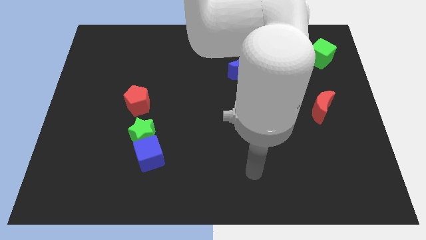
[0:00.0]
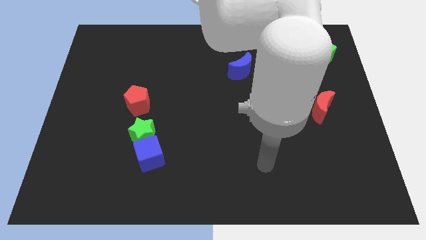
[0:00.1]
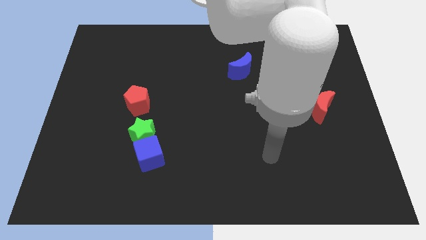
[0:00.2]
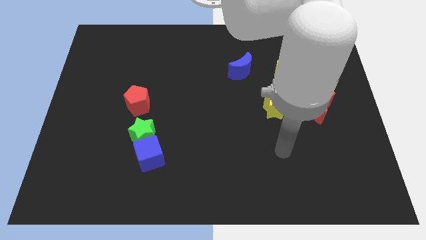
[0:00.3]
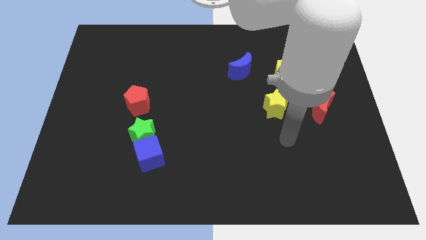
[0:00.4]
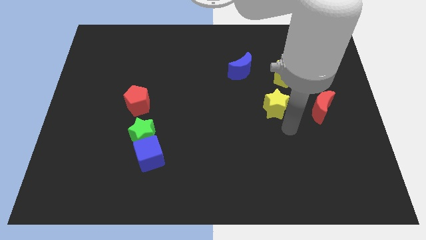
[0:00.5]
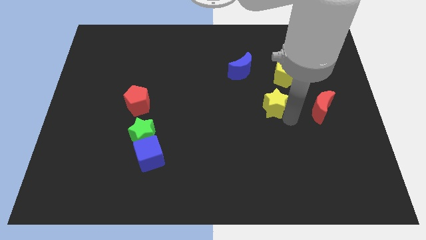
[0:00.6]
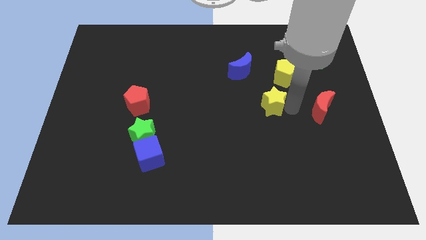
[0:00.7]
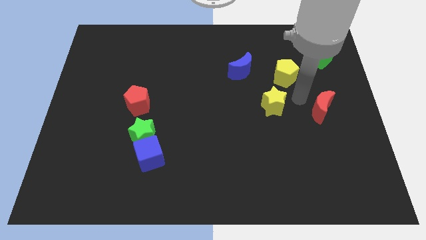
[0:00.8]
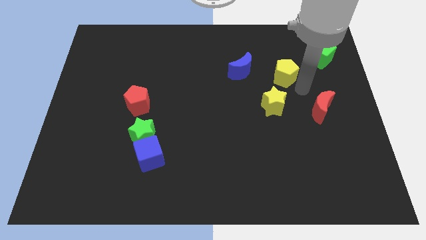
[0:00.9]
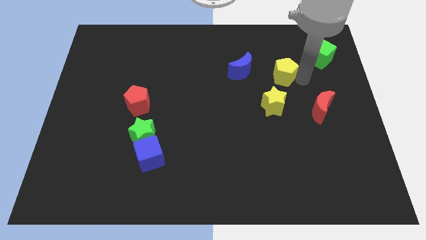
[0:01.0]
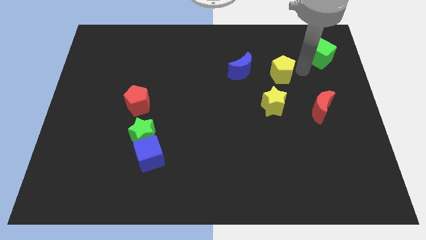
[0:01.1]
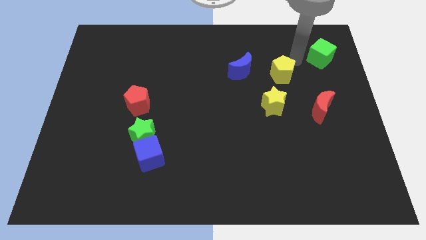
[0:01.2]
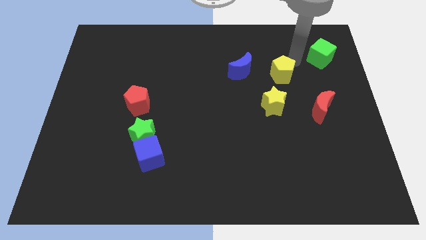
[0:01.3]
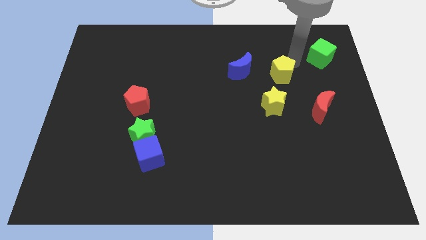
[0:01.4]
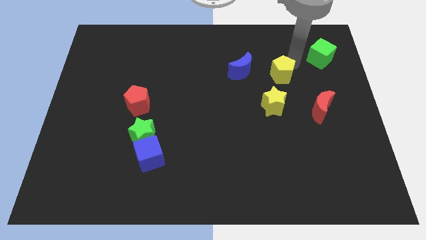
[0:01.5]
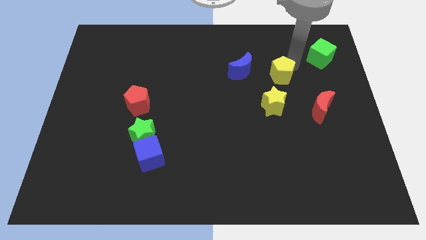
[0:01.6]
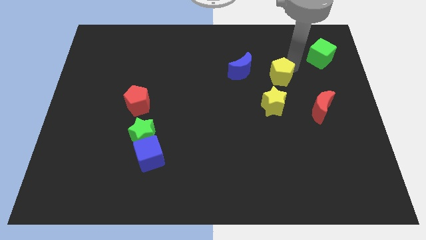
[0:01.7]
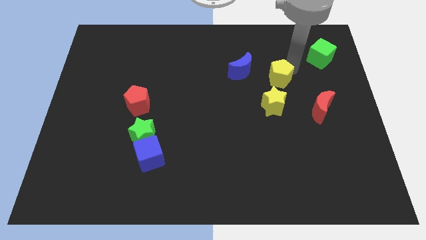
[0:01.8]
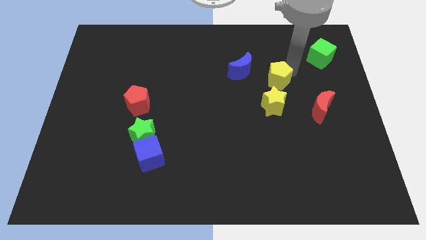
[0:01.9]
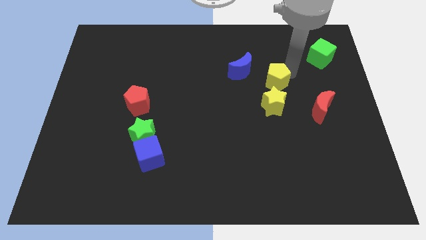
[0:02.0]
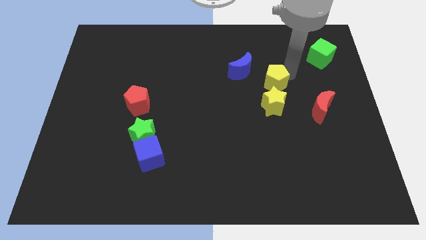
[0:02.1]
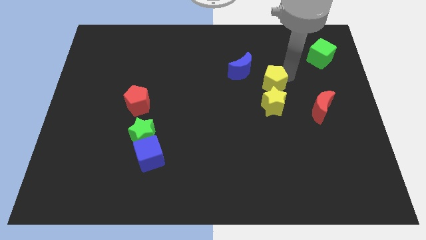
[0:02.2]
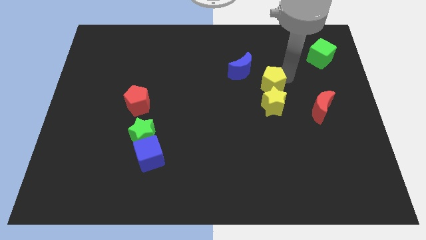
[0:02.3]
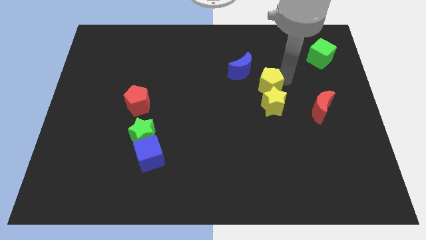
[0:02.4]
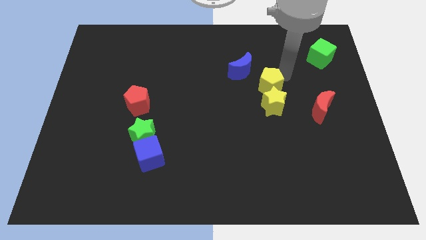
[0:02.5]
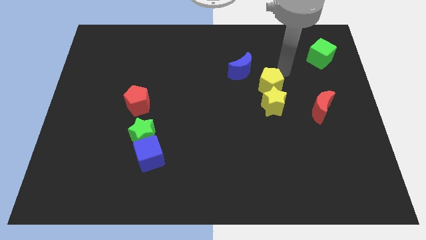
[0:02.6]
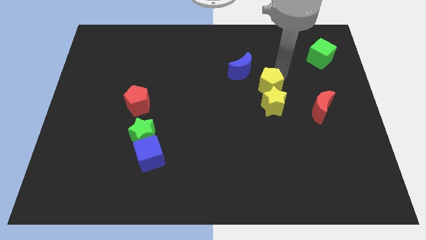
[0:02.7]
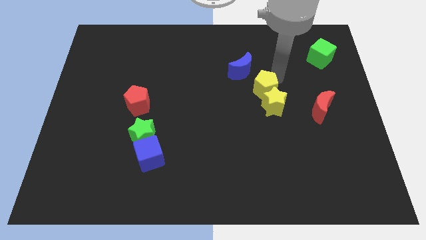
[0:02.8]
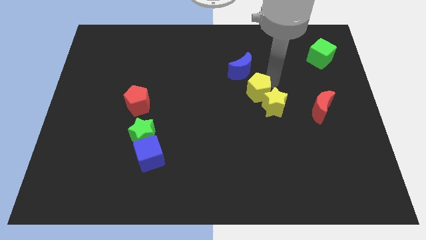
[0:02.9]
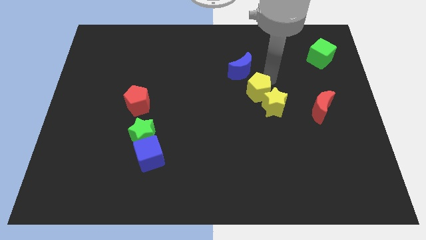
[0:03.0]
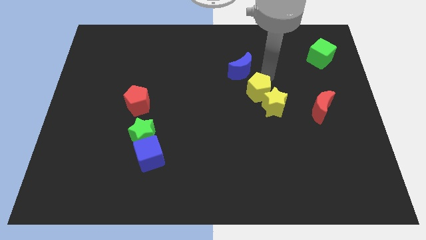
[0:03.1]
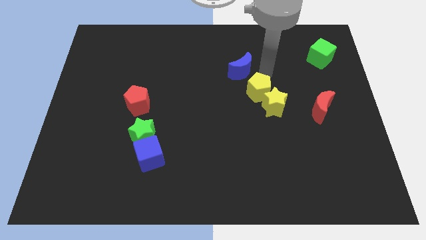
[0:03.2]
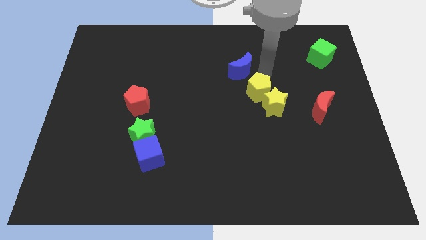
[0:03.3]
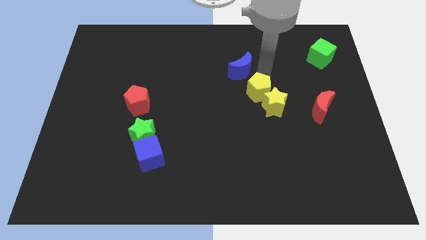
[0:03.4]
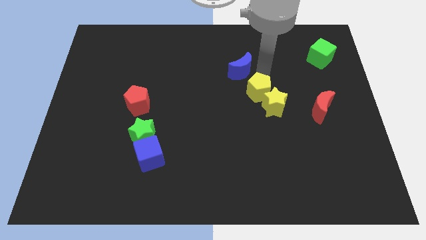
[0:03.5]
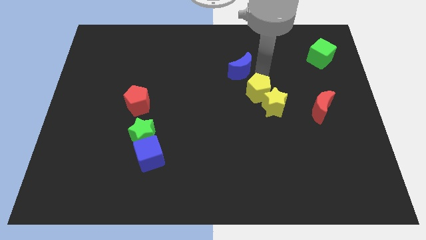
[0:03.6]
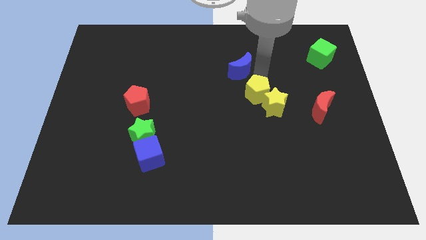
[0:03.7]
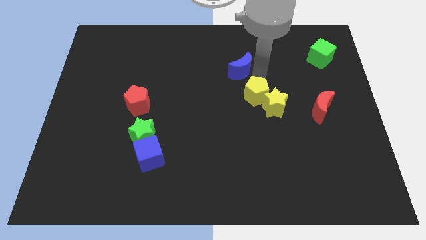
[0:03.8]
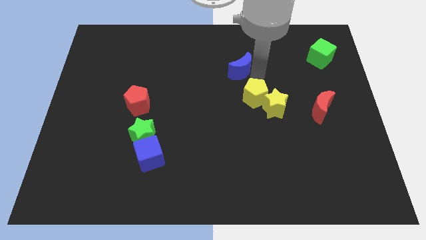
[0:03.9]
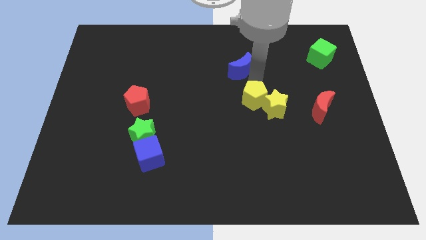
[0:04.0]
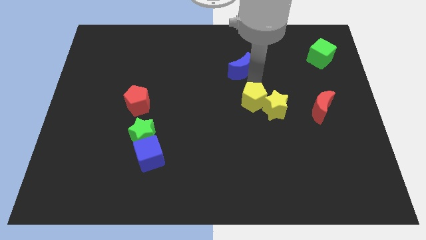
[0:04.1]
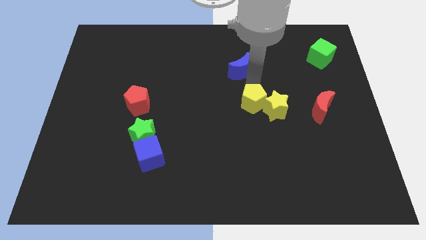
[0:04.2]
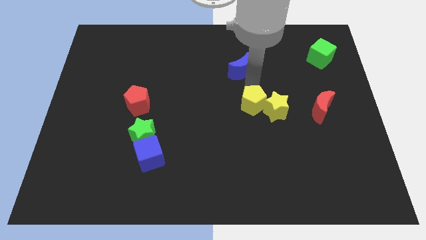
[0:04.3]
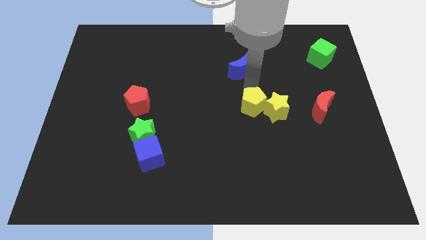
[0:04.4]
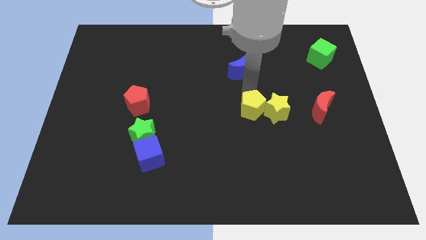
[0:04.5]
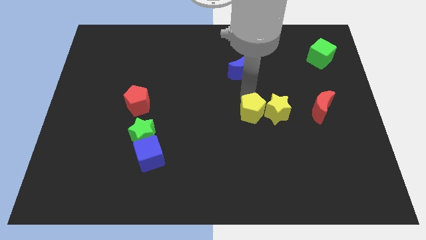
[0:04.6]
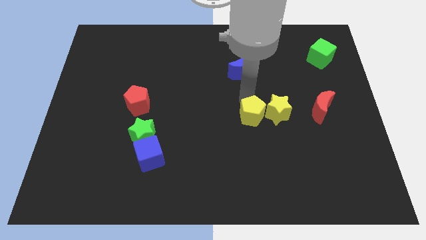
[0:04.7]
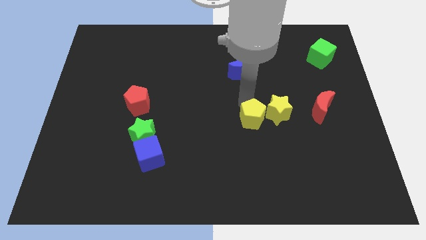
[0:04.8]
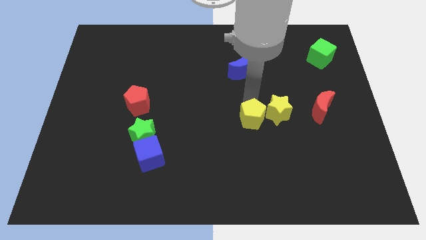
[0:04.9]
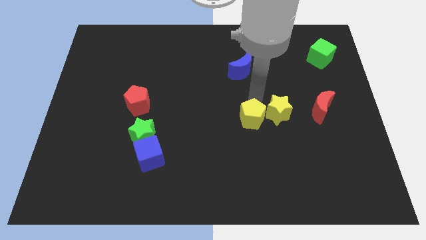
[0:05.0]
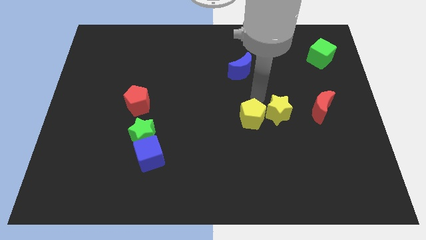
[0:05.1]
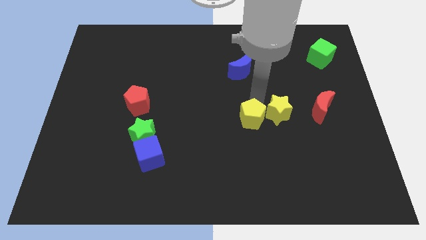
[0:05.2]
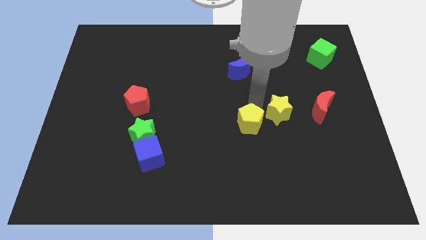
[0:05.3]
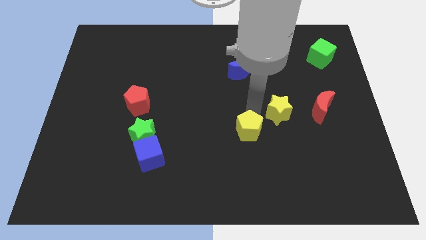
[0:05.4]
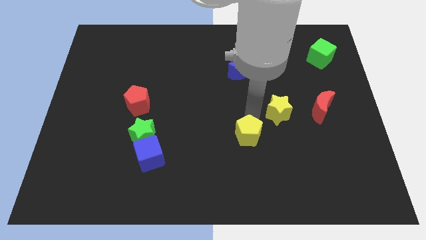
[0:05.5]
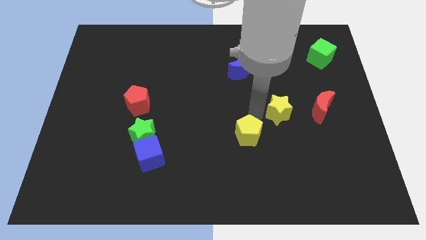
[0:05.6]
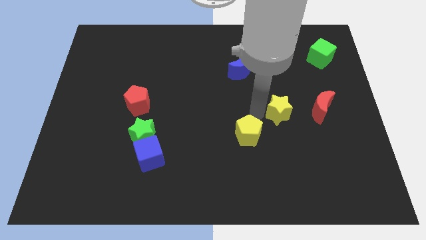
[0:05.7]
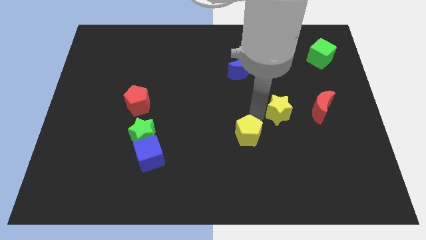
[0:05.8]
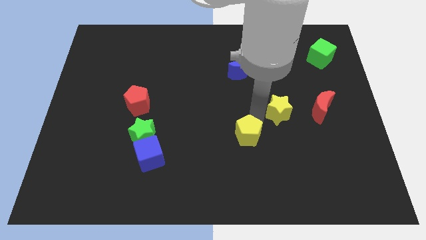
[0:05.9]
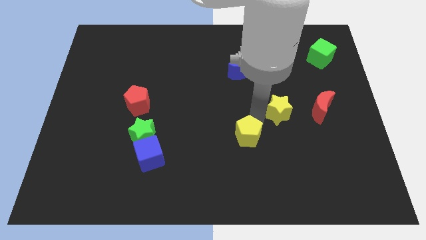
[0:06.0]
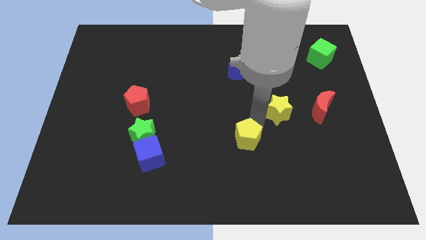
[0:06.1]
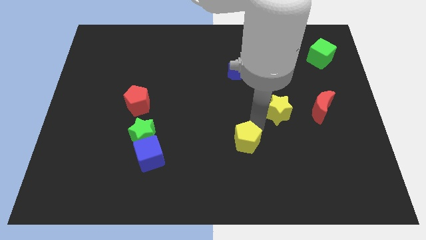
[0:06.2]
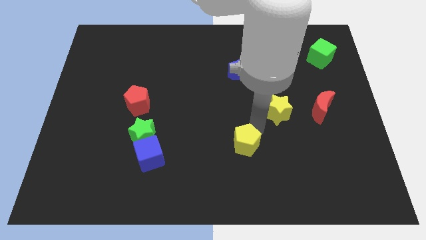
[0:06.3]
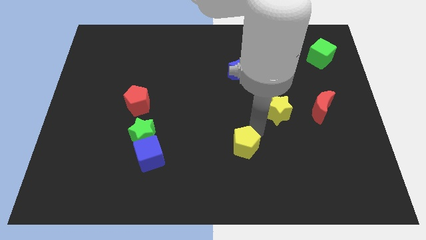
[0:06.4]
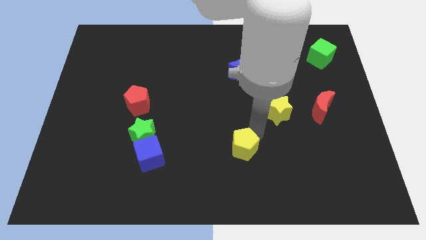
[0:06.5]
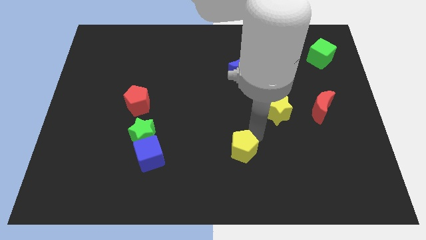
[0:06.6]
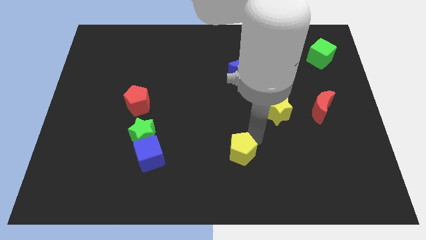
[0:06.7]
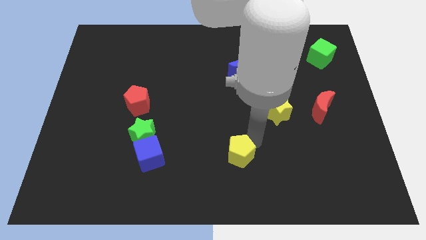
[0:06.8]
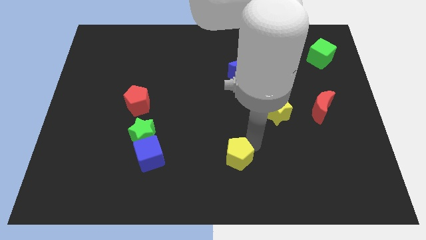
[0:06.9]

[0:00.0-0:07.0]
put the yellow pentagon to the bottom side
